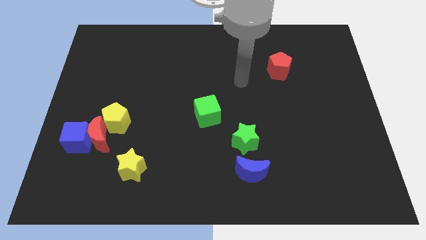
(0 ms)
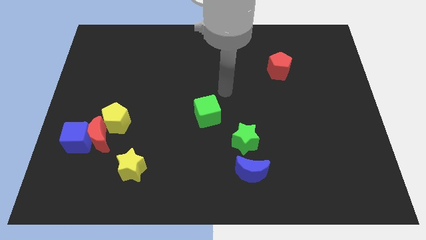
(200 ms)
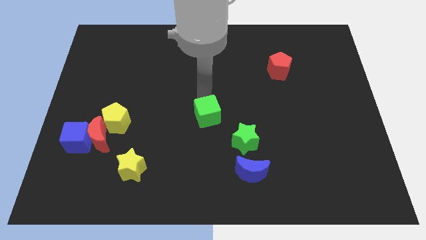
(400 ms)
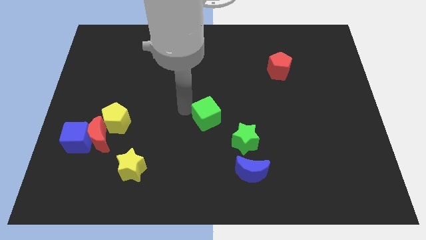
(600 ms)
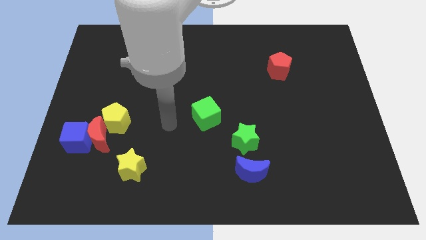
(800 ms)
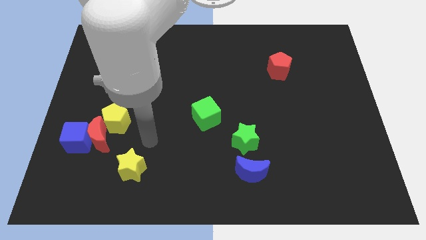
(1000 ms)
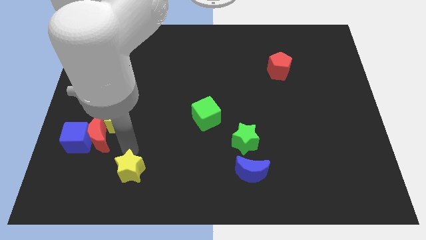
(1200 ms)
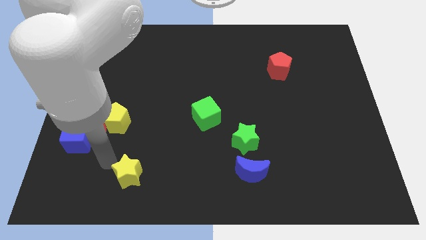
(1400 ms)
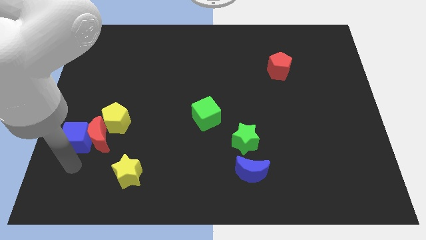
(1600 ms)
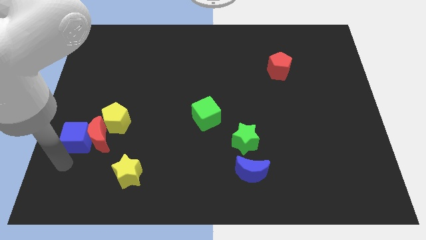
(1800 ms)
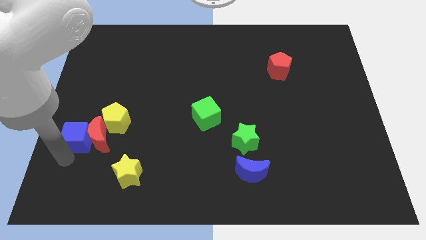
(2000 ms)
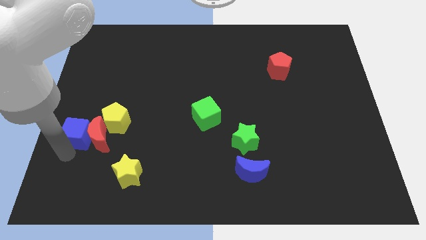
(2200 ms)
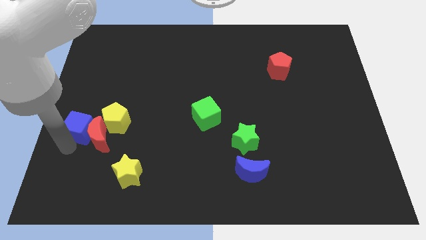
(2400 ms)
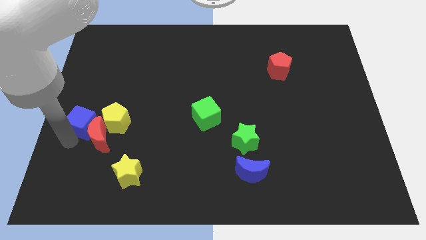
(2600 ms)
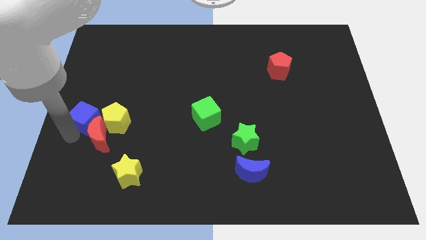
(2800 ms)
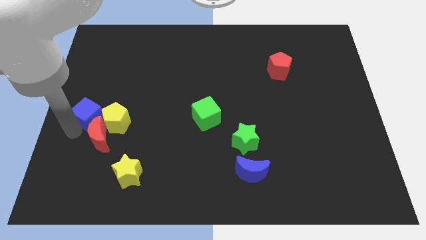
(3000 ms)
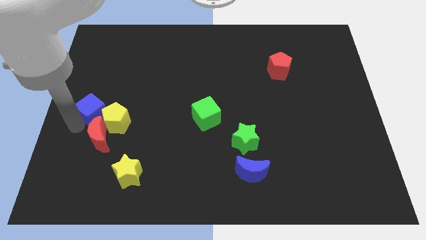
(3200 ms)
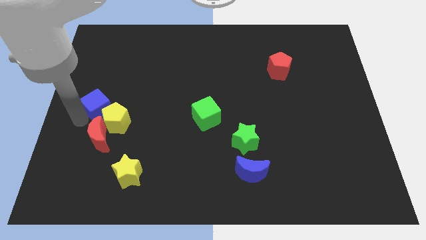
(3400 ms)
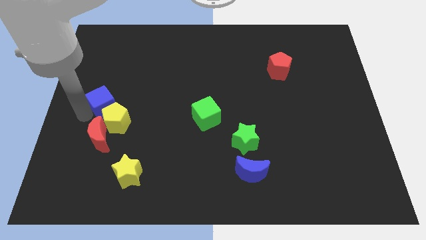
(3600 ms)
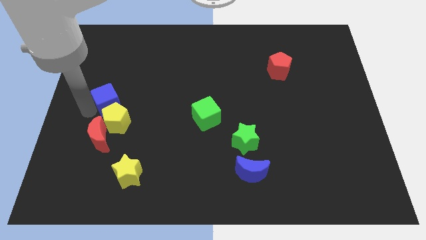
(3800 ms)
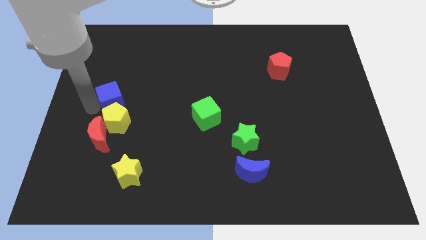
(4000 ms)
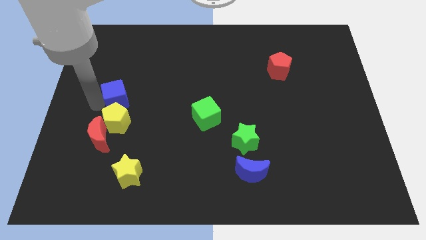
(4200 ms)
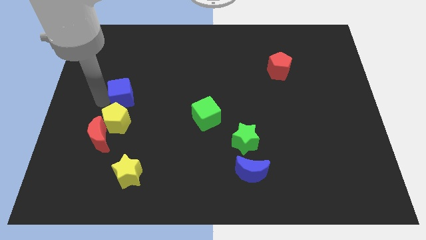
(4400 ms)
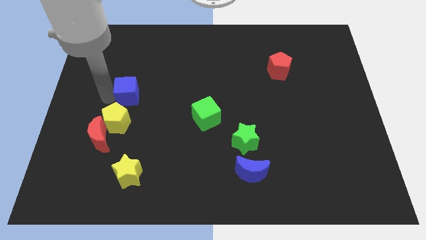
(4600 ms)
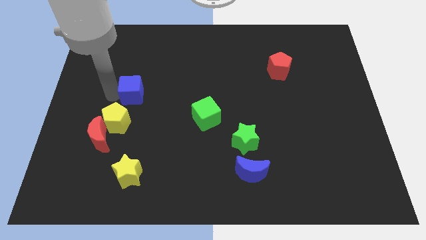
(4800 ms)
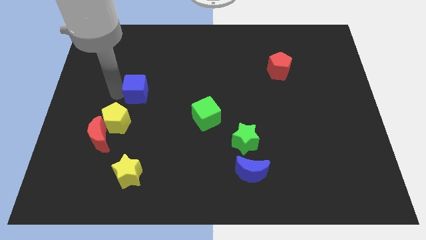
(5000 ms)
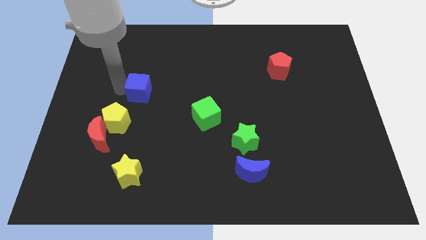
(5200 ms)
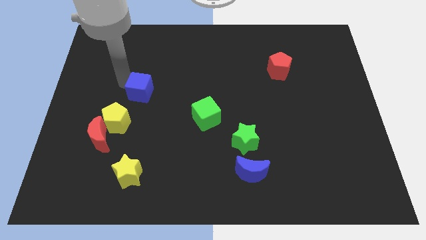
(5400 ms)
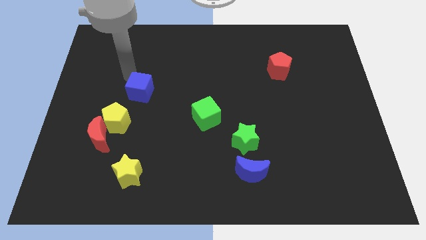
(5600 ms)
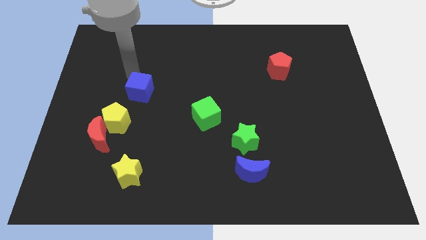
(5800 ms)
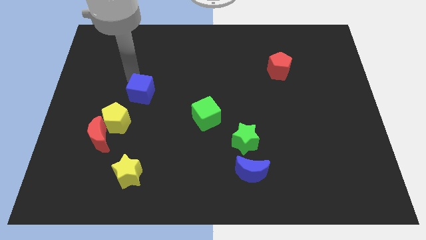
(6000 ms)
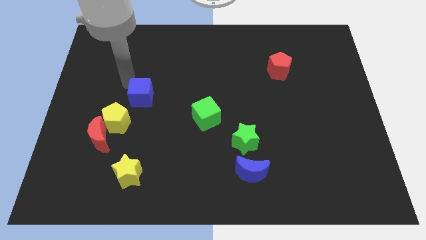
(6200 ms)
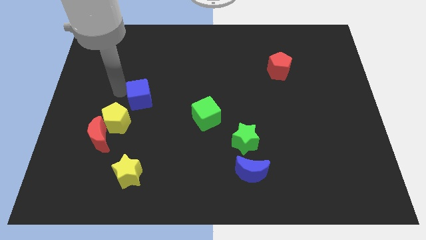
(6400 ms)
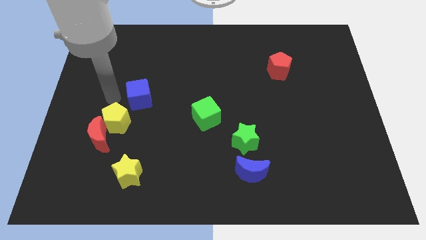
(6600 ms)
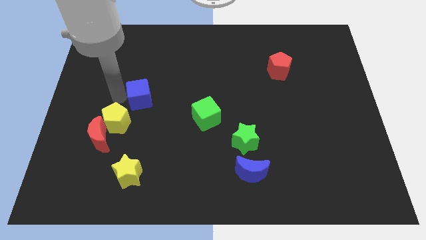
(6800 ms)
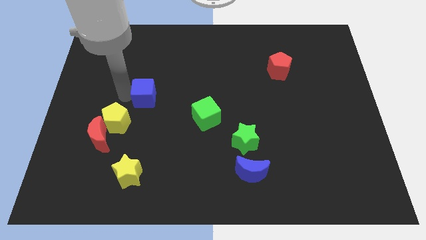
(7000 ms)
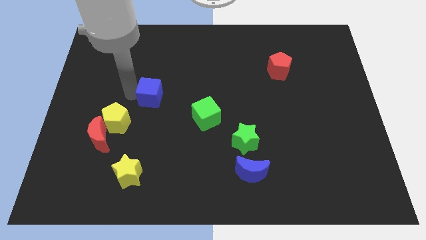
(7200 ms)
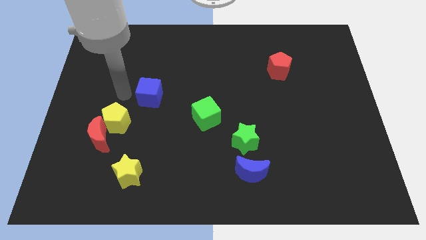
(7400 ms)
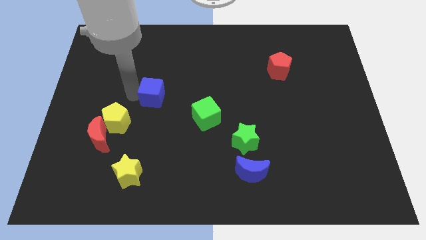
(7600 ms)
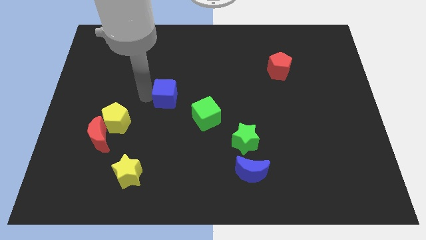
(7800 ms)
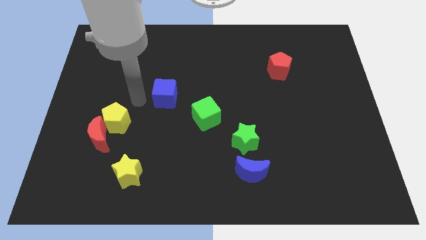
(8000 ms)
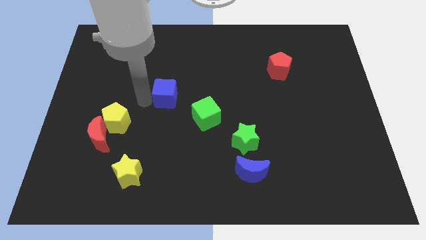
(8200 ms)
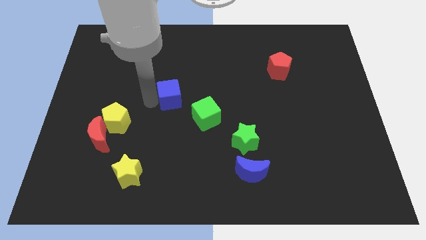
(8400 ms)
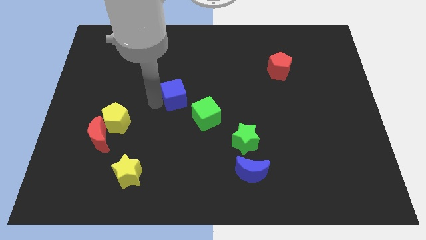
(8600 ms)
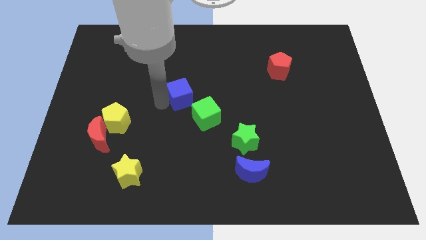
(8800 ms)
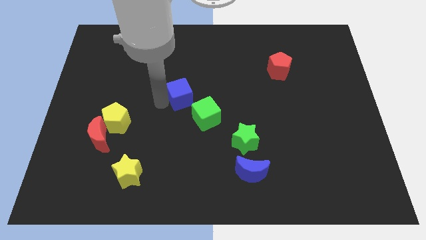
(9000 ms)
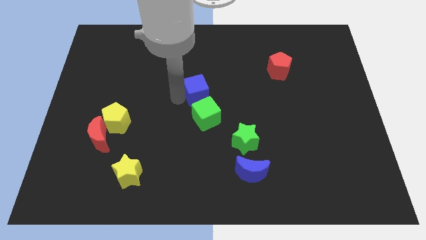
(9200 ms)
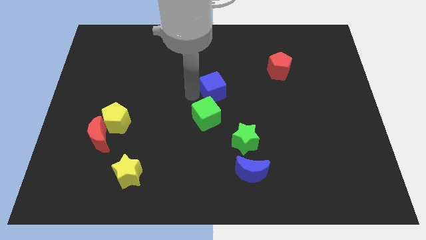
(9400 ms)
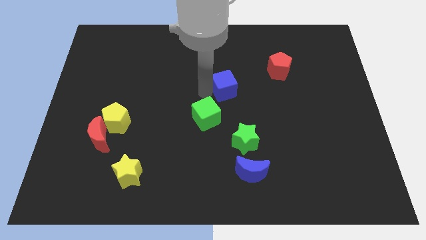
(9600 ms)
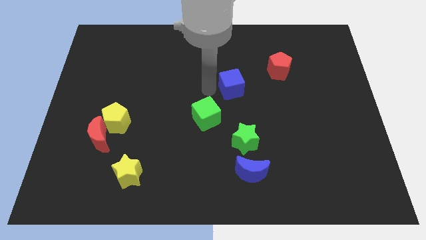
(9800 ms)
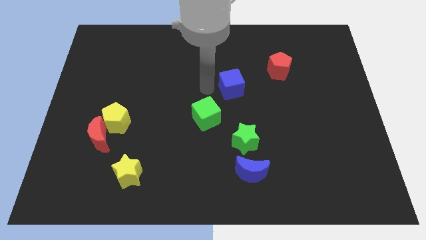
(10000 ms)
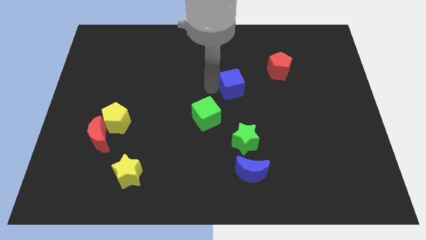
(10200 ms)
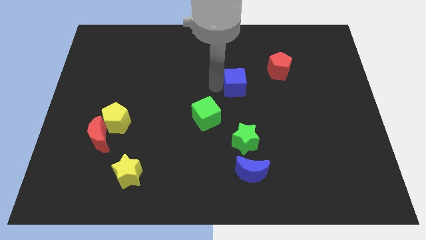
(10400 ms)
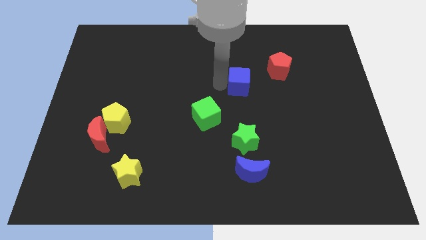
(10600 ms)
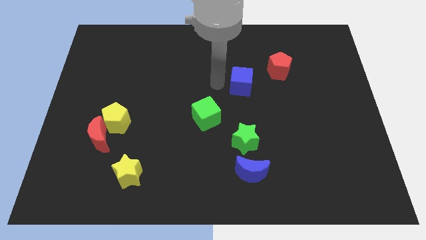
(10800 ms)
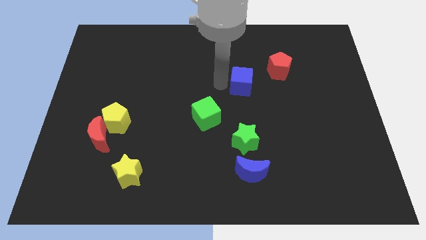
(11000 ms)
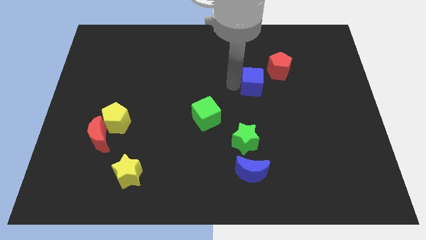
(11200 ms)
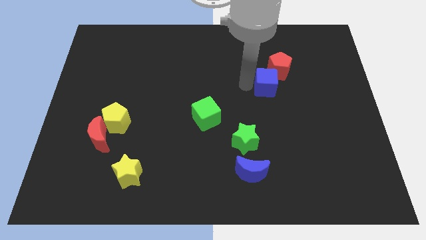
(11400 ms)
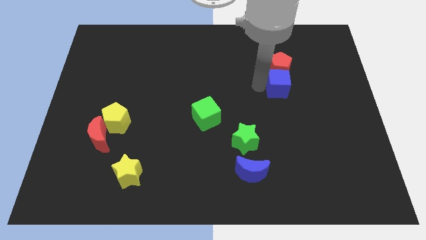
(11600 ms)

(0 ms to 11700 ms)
push the blue cube to the bottom right side of the red pentagon

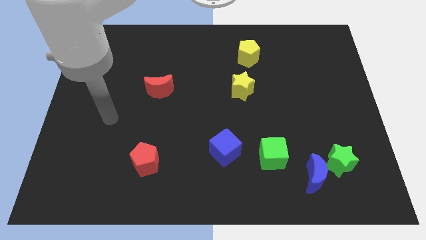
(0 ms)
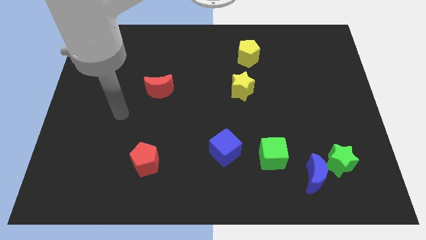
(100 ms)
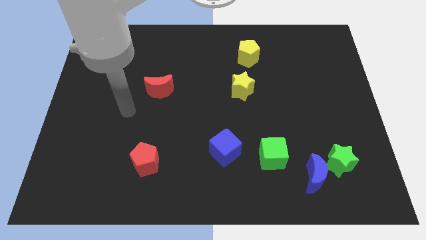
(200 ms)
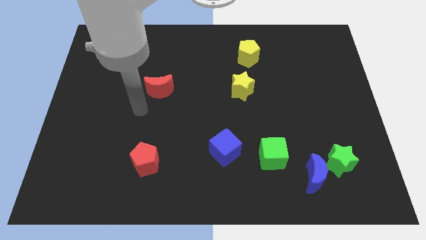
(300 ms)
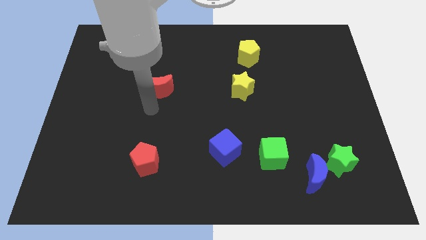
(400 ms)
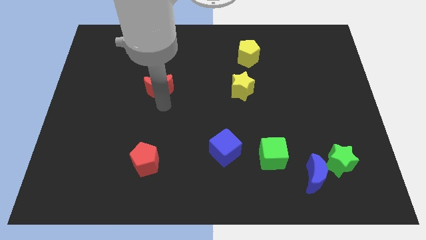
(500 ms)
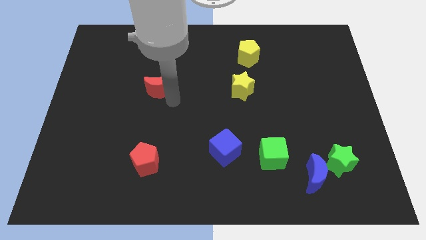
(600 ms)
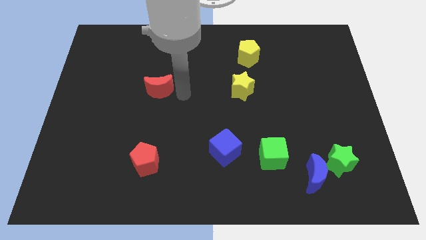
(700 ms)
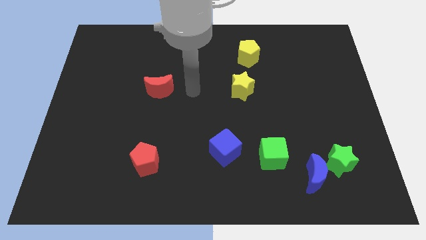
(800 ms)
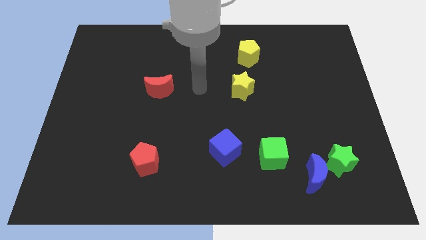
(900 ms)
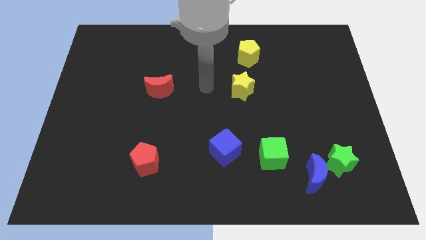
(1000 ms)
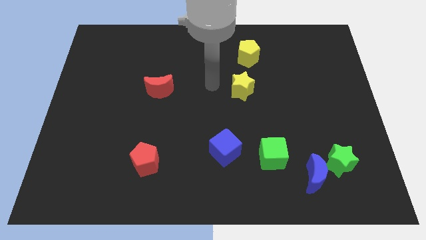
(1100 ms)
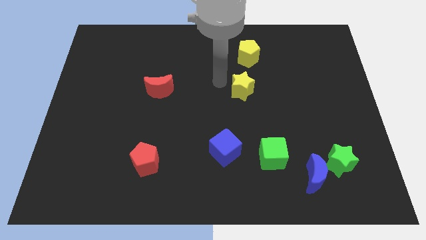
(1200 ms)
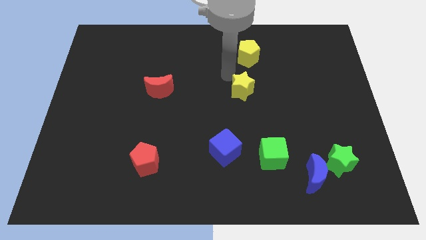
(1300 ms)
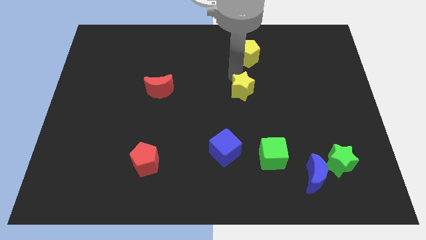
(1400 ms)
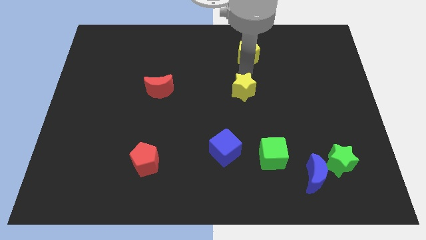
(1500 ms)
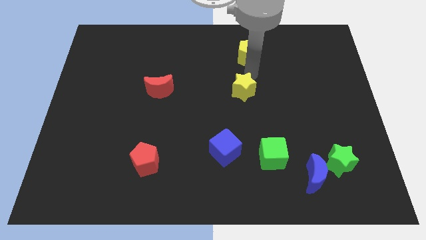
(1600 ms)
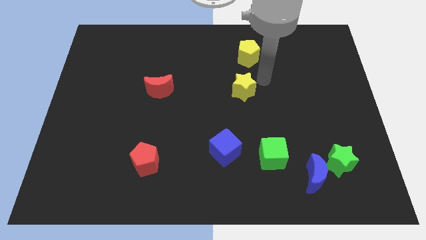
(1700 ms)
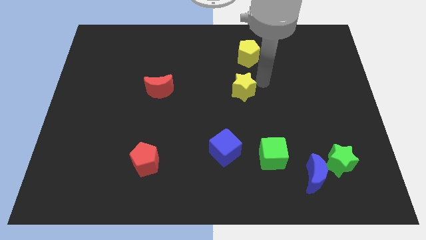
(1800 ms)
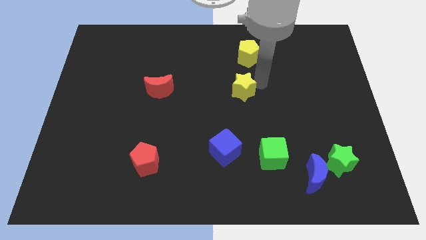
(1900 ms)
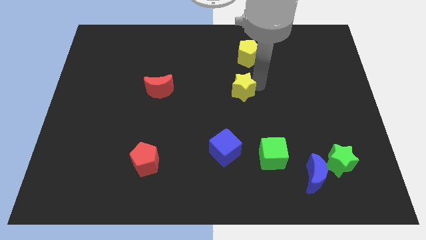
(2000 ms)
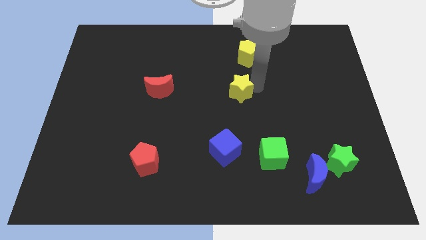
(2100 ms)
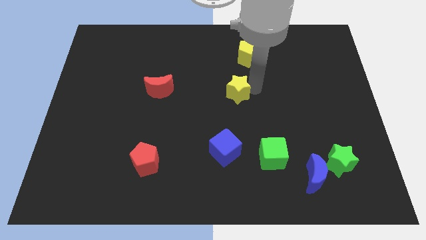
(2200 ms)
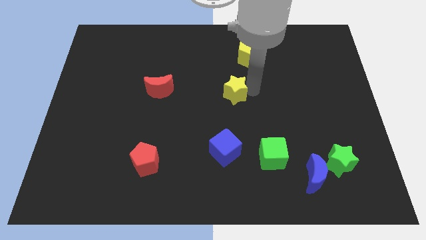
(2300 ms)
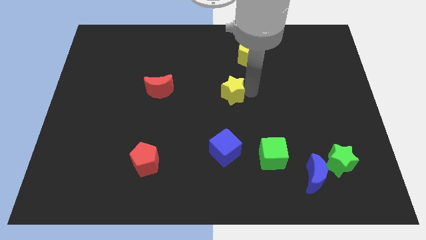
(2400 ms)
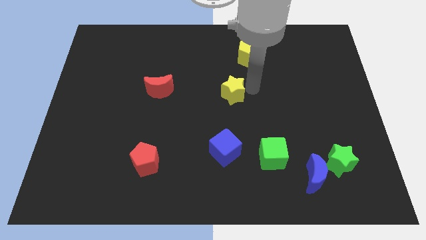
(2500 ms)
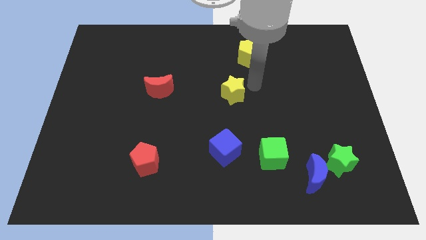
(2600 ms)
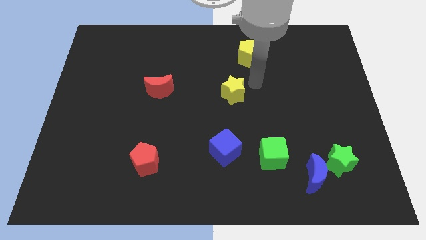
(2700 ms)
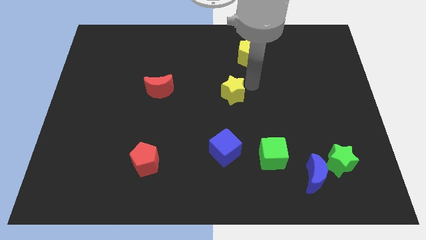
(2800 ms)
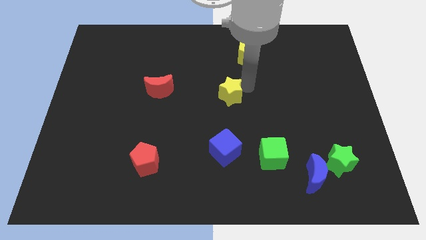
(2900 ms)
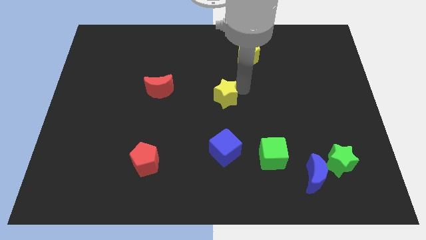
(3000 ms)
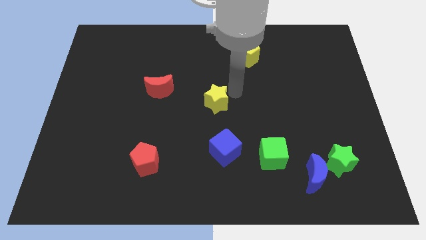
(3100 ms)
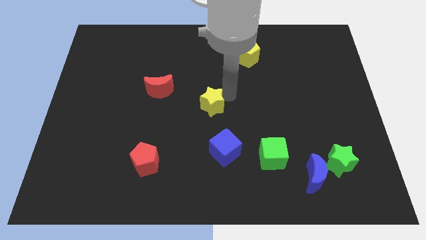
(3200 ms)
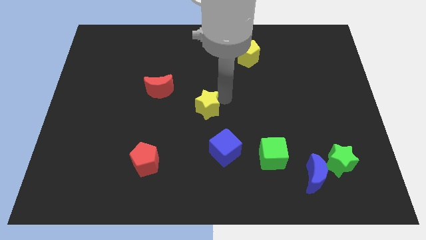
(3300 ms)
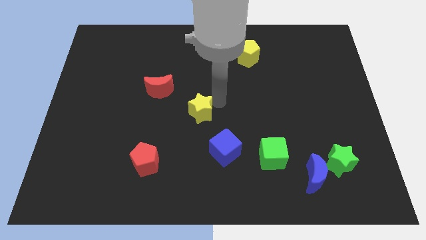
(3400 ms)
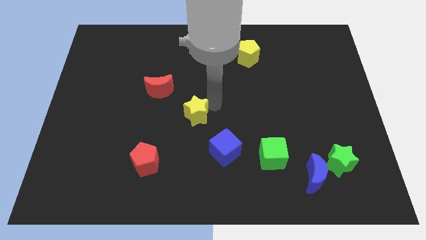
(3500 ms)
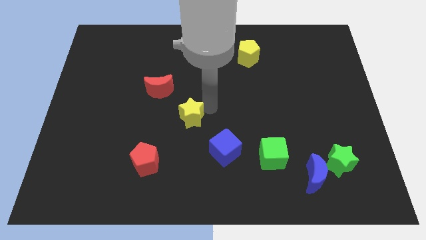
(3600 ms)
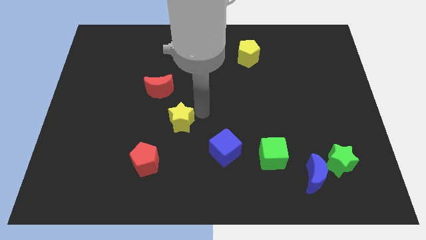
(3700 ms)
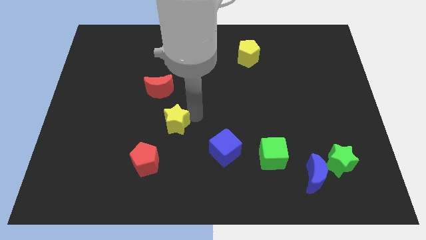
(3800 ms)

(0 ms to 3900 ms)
move the yellow star to the bottom of the red moon
